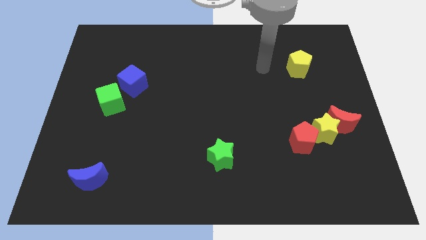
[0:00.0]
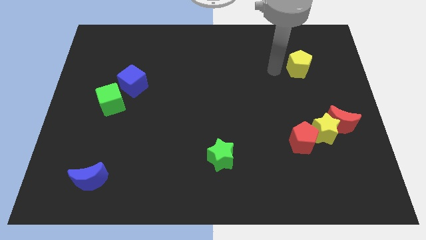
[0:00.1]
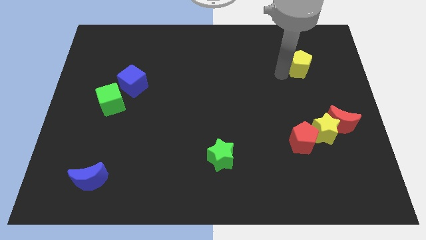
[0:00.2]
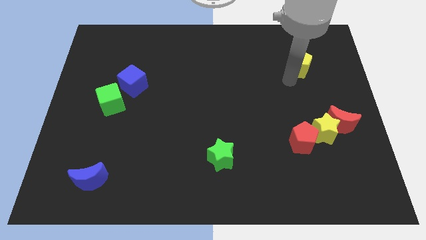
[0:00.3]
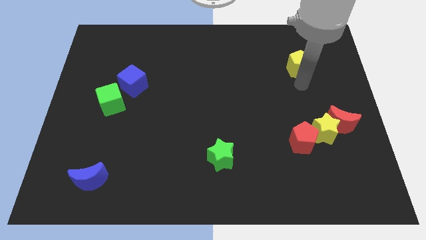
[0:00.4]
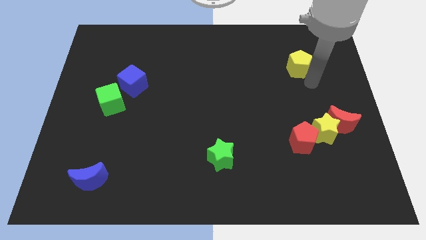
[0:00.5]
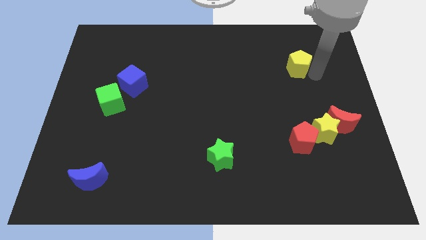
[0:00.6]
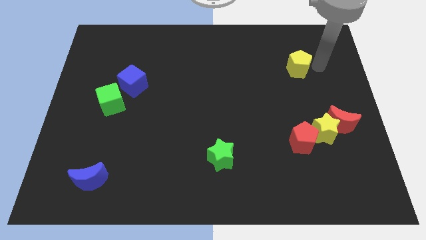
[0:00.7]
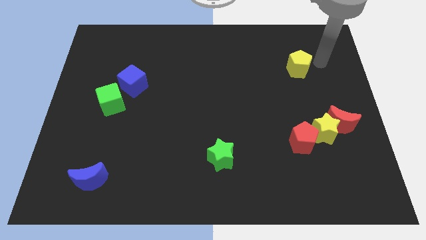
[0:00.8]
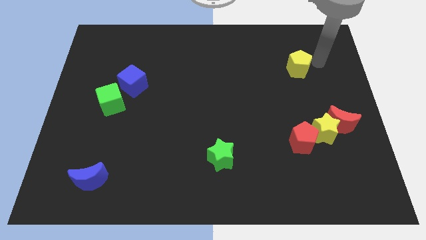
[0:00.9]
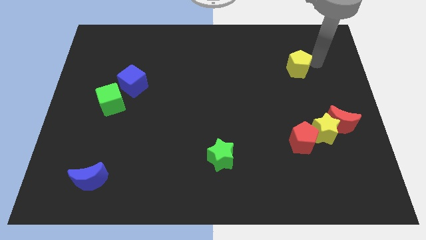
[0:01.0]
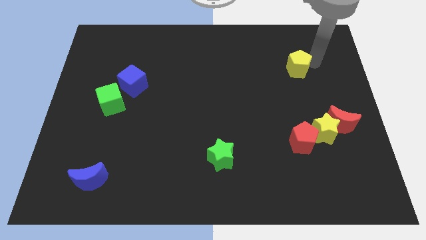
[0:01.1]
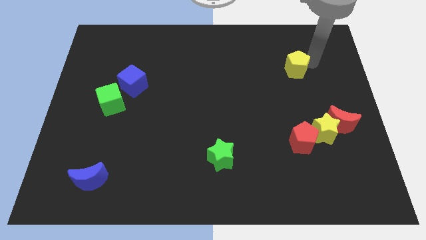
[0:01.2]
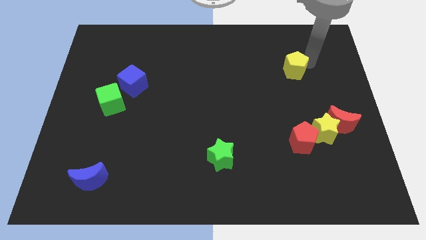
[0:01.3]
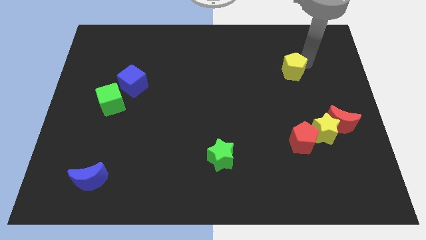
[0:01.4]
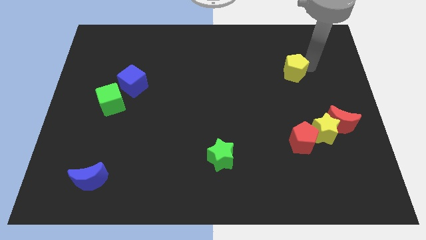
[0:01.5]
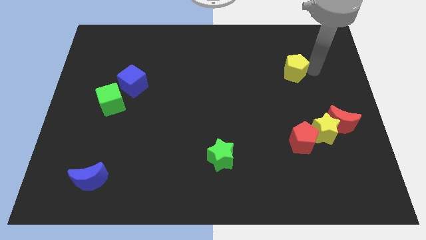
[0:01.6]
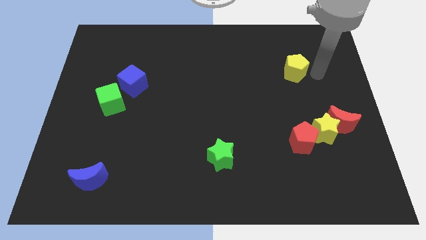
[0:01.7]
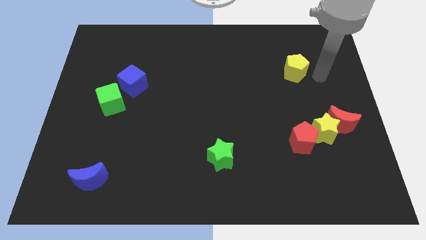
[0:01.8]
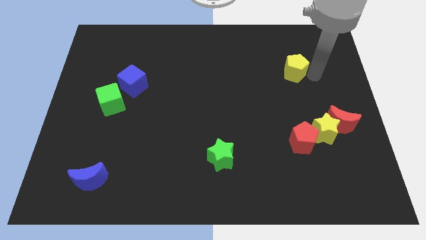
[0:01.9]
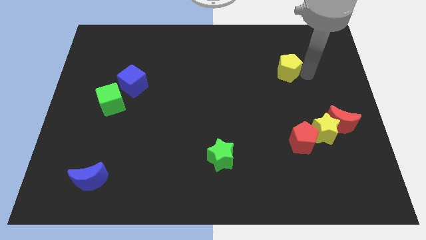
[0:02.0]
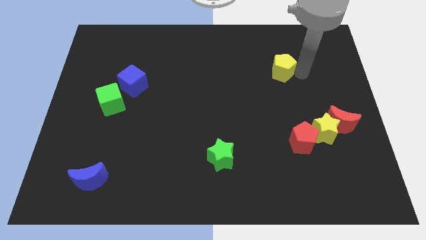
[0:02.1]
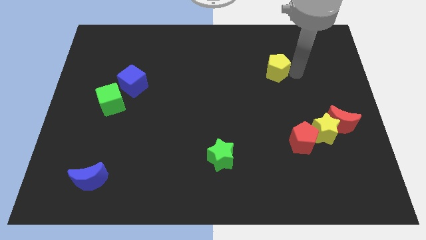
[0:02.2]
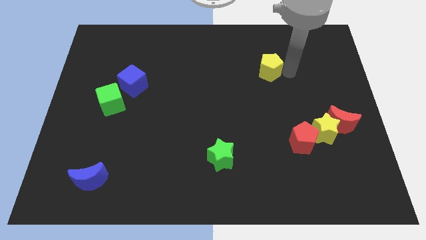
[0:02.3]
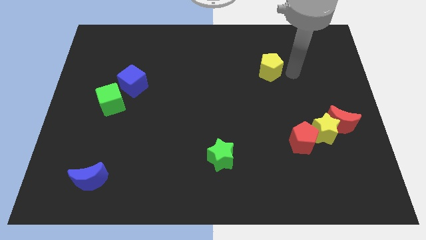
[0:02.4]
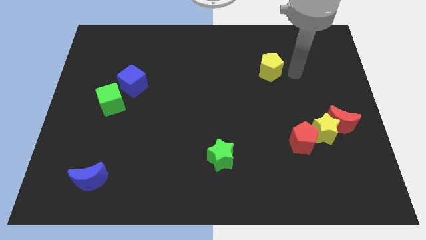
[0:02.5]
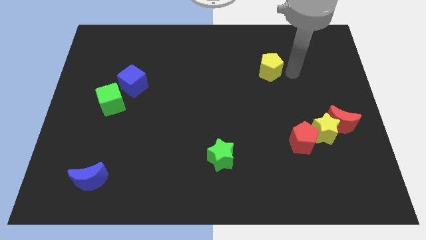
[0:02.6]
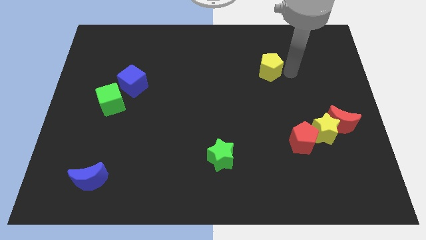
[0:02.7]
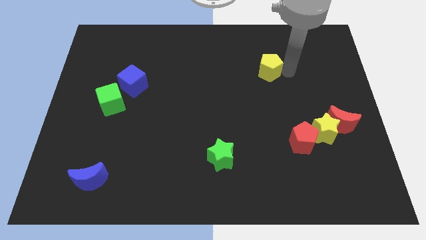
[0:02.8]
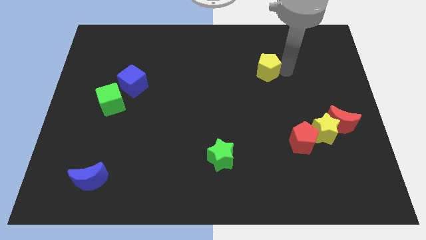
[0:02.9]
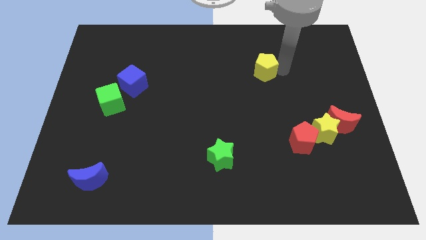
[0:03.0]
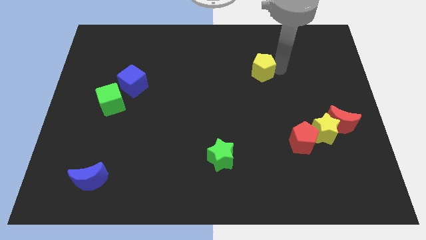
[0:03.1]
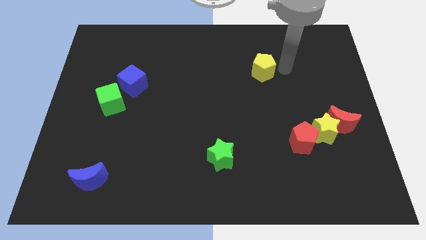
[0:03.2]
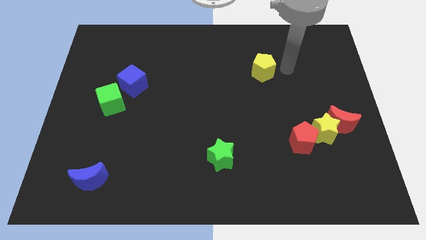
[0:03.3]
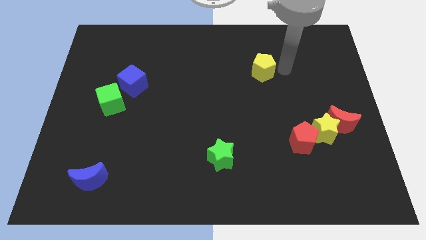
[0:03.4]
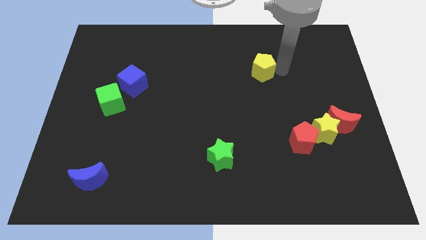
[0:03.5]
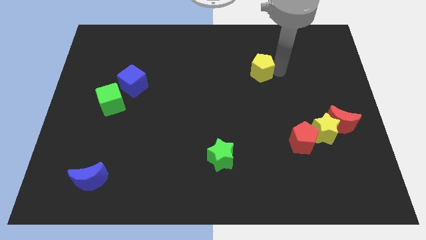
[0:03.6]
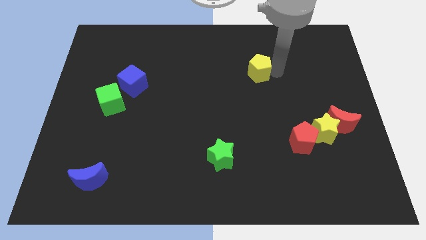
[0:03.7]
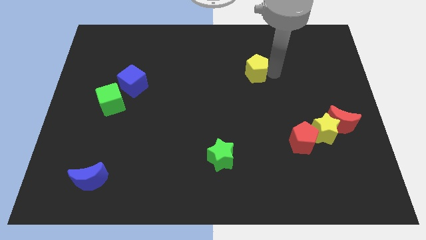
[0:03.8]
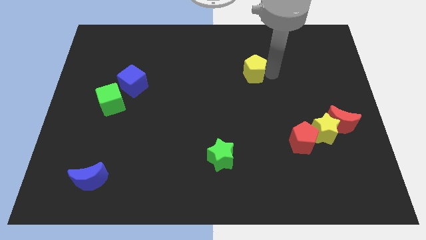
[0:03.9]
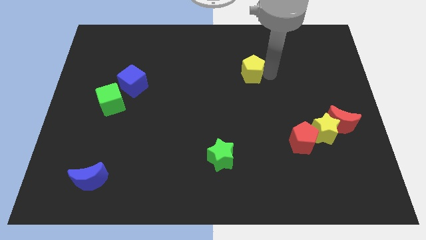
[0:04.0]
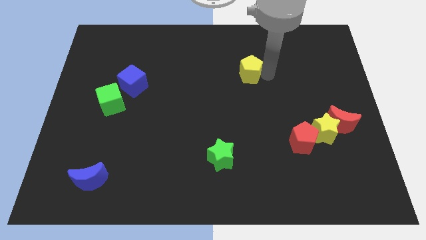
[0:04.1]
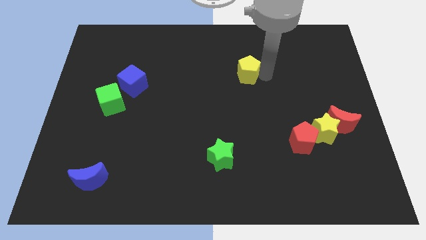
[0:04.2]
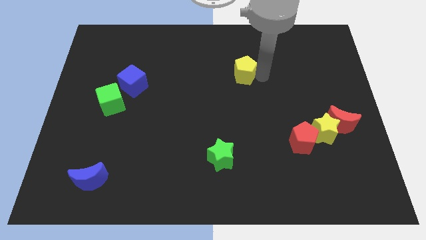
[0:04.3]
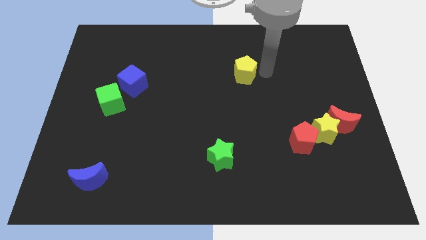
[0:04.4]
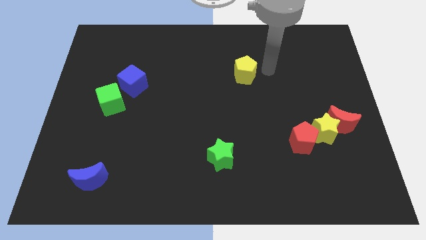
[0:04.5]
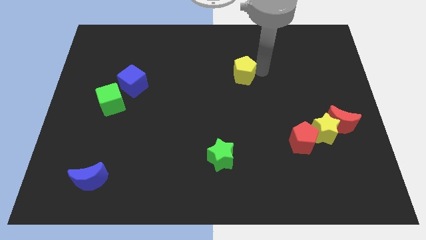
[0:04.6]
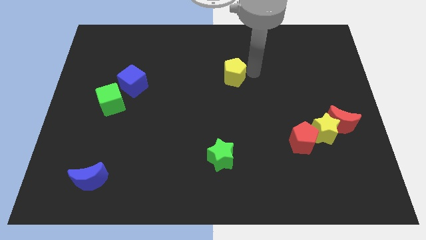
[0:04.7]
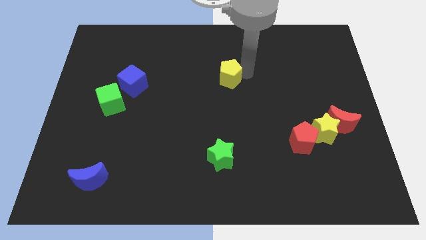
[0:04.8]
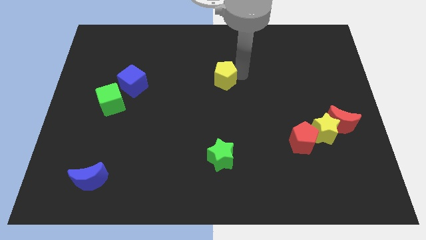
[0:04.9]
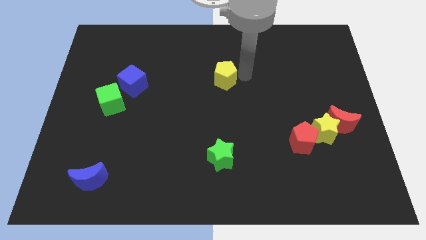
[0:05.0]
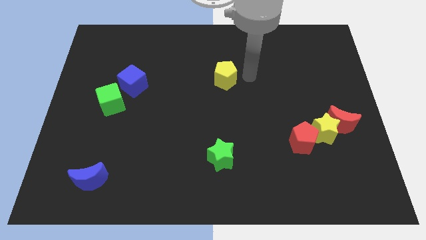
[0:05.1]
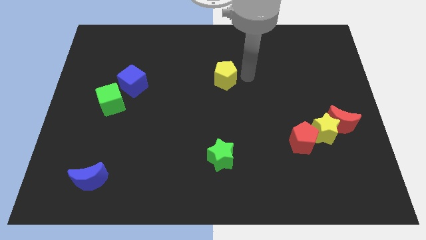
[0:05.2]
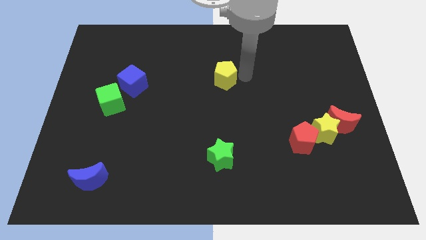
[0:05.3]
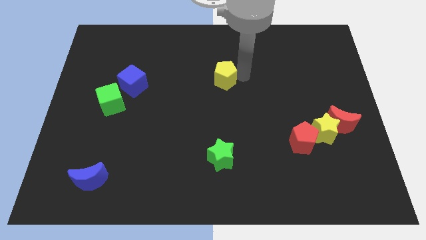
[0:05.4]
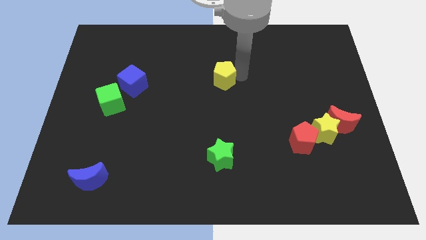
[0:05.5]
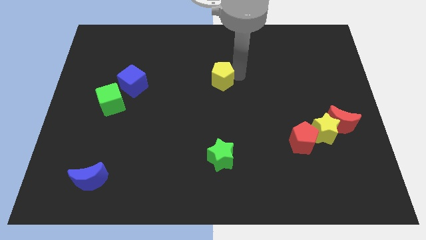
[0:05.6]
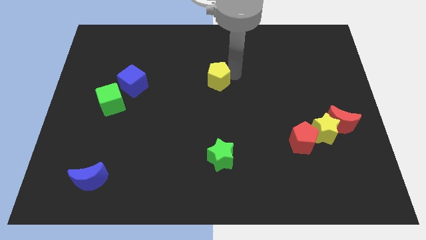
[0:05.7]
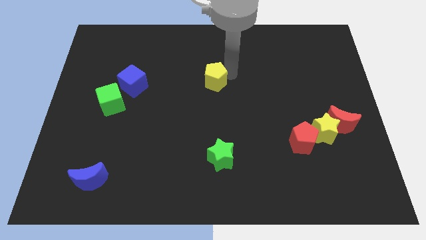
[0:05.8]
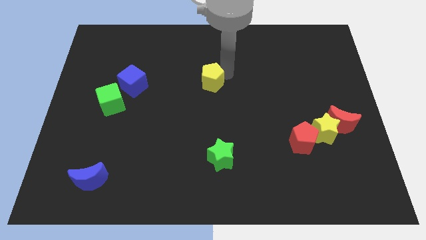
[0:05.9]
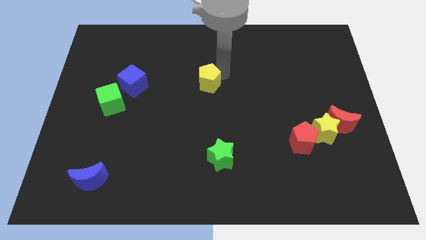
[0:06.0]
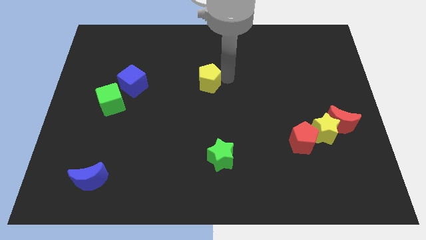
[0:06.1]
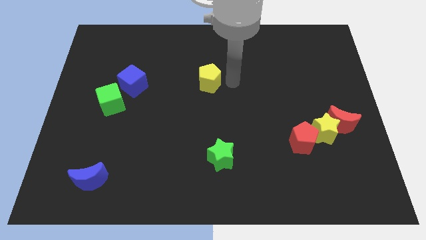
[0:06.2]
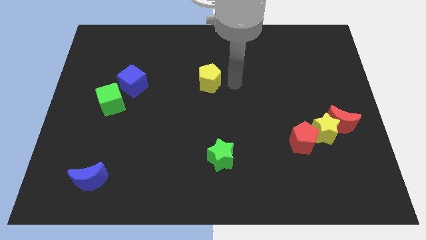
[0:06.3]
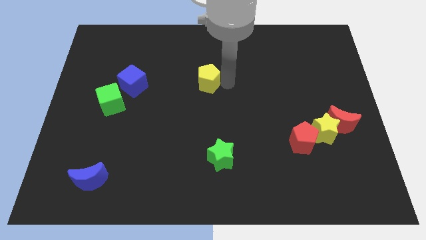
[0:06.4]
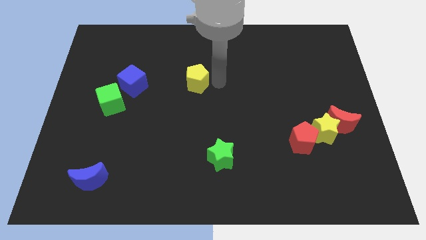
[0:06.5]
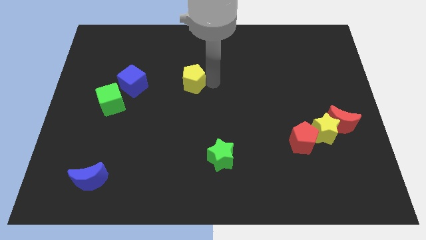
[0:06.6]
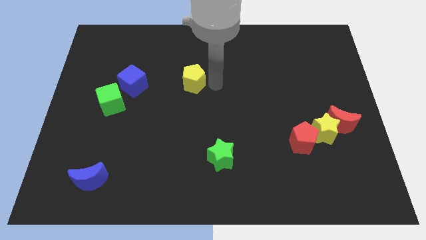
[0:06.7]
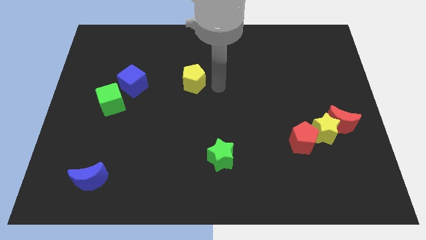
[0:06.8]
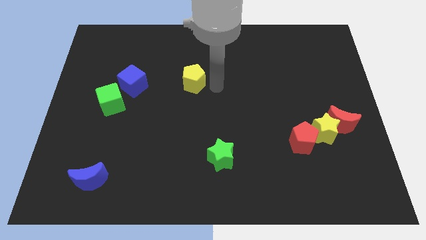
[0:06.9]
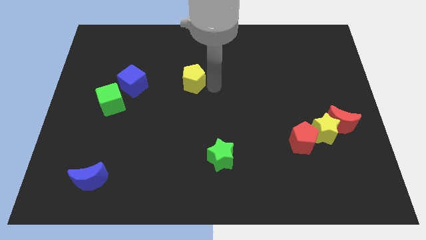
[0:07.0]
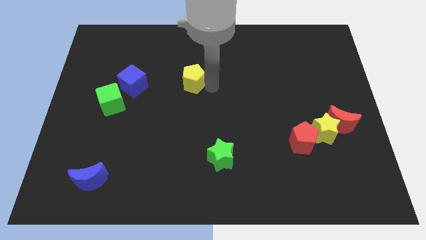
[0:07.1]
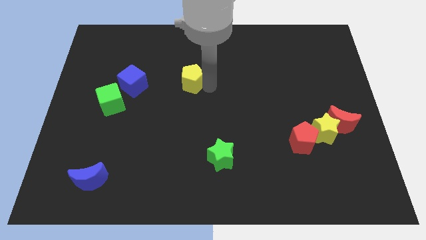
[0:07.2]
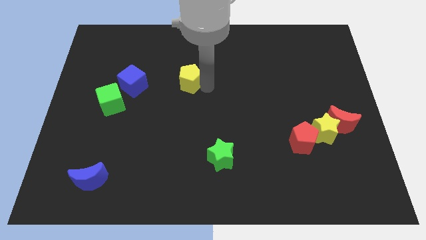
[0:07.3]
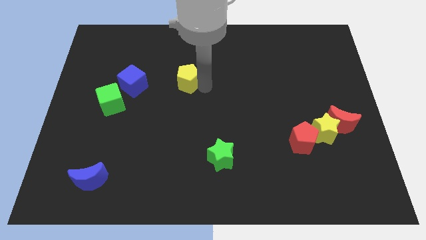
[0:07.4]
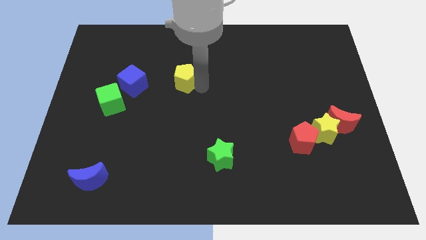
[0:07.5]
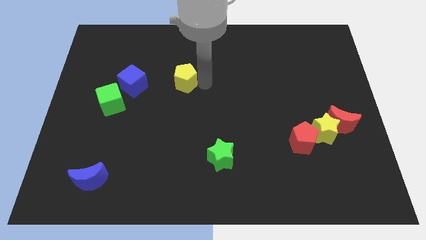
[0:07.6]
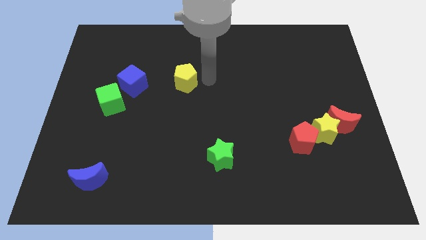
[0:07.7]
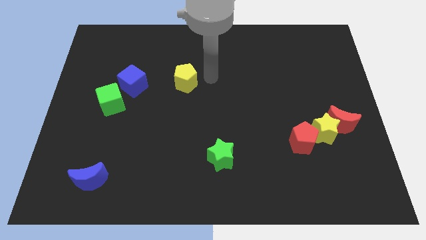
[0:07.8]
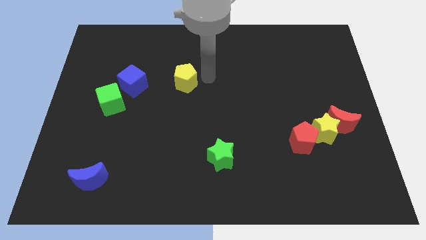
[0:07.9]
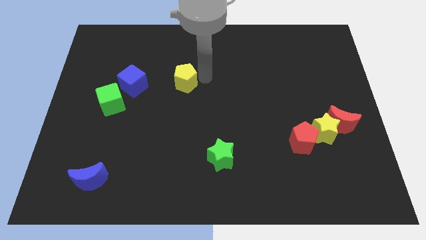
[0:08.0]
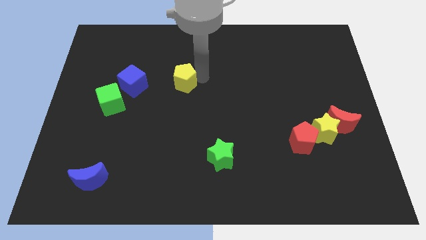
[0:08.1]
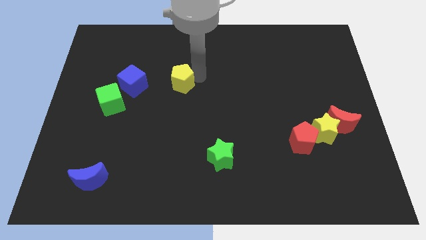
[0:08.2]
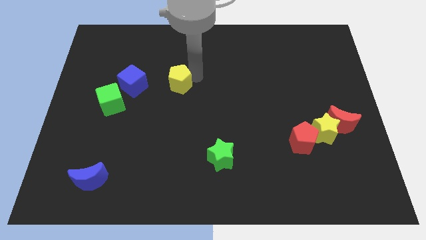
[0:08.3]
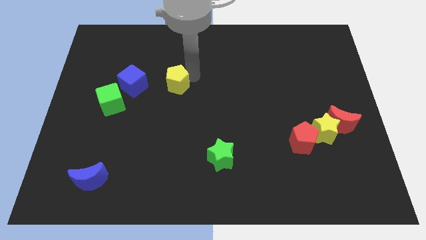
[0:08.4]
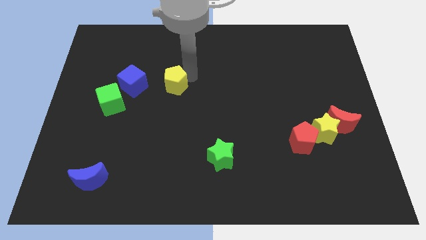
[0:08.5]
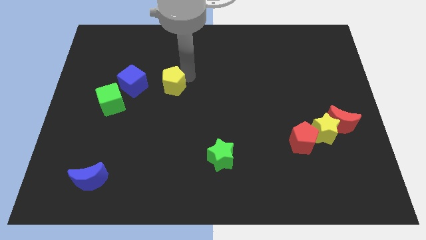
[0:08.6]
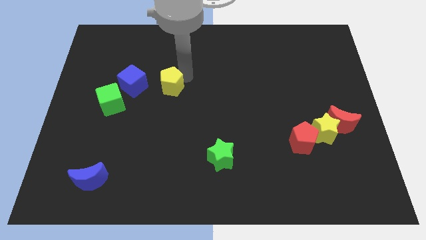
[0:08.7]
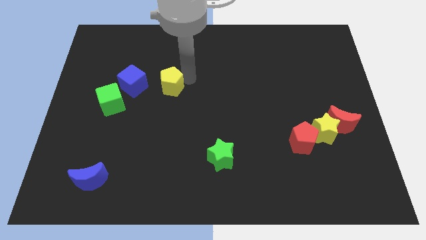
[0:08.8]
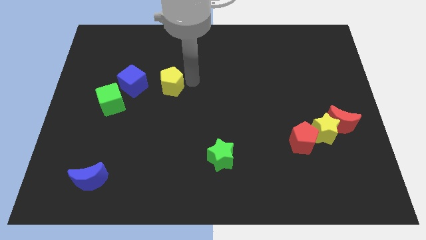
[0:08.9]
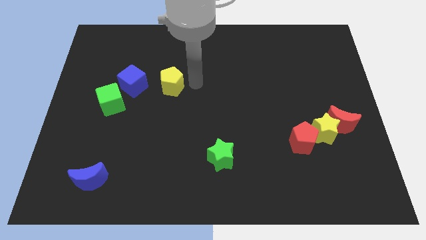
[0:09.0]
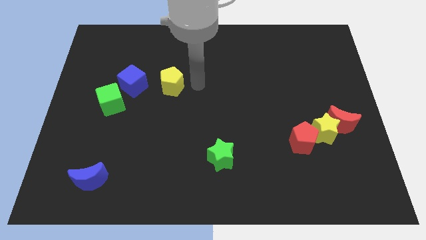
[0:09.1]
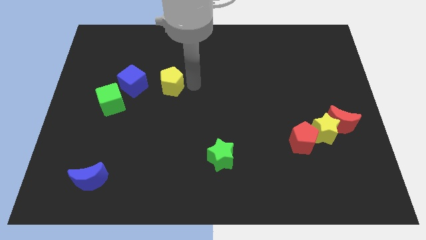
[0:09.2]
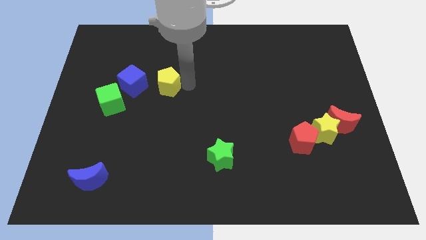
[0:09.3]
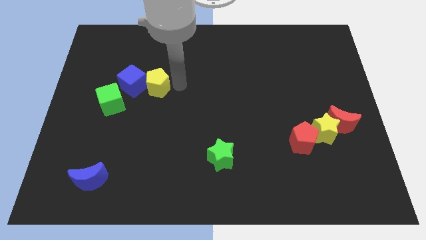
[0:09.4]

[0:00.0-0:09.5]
push the yellow pentagon next to the blue cube
